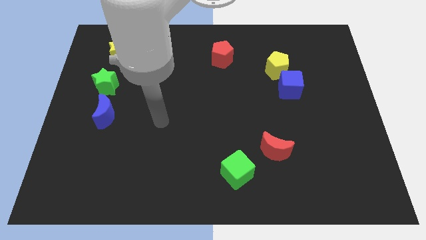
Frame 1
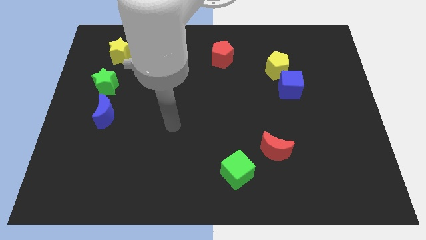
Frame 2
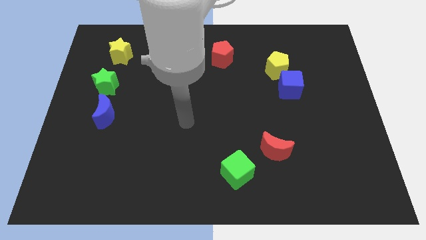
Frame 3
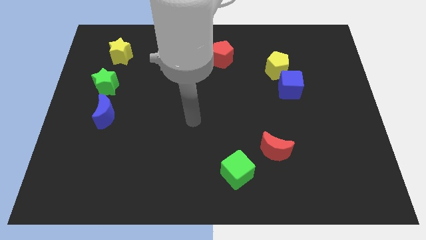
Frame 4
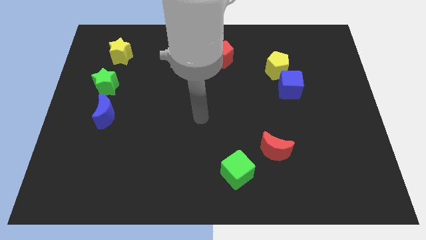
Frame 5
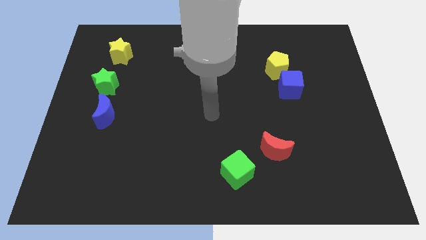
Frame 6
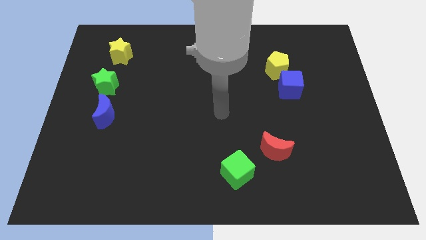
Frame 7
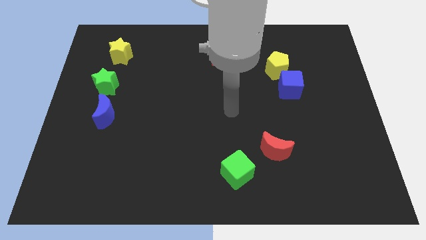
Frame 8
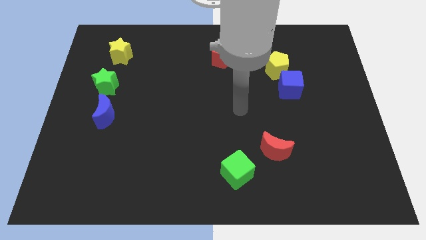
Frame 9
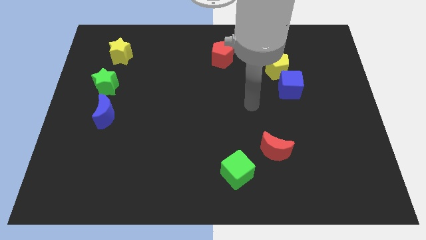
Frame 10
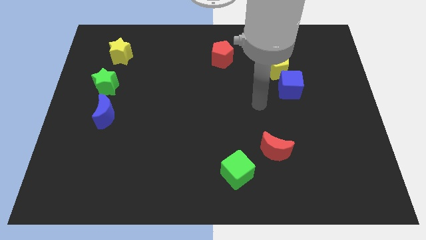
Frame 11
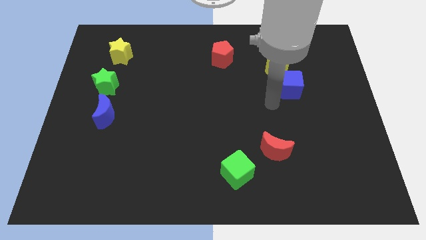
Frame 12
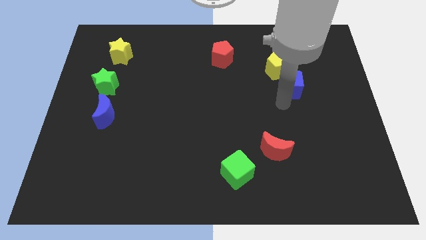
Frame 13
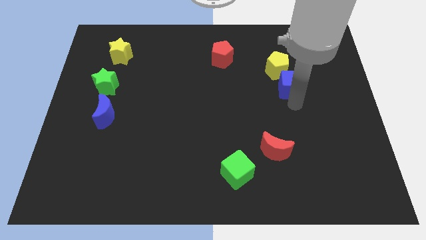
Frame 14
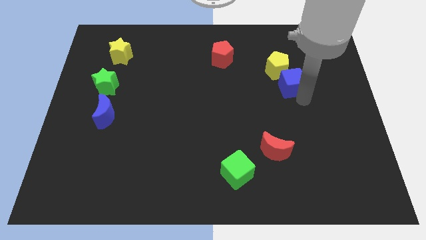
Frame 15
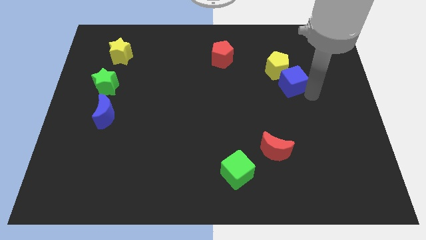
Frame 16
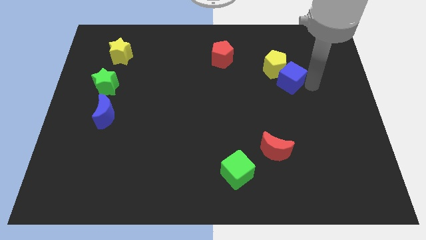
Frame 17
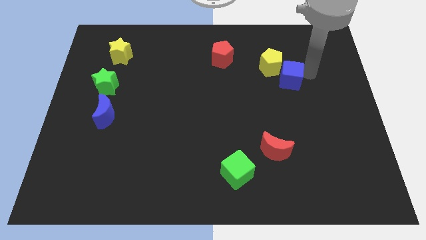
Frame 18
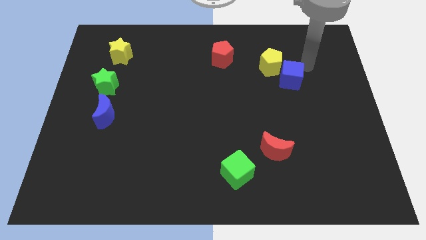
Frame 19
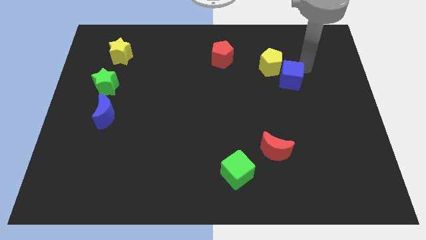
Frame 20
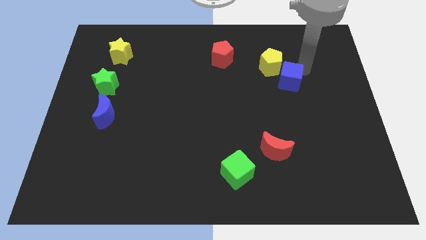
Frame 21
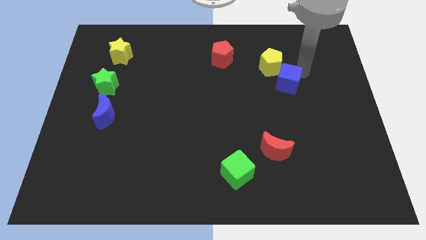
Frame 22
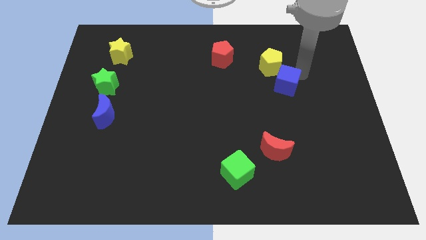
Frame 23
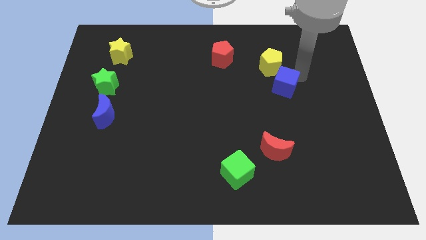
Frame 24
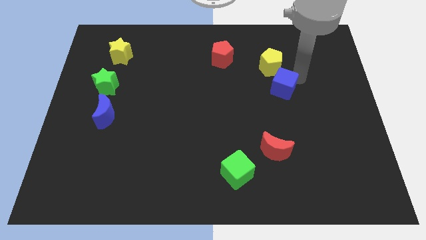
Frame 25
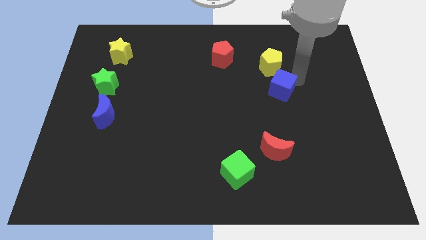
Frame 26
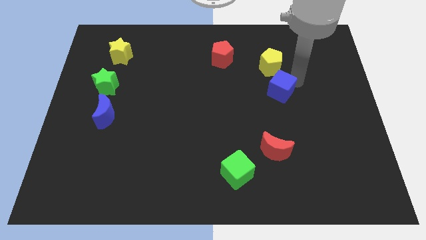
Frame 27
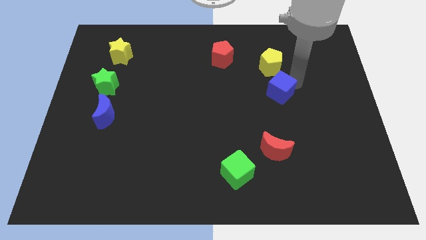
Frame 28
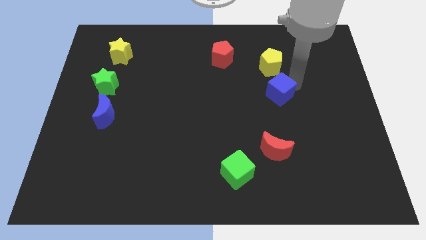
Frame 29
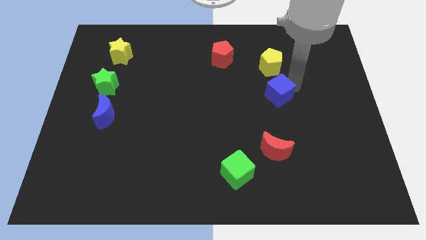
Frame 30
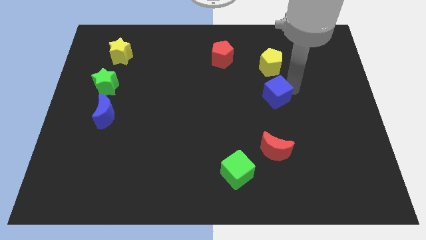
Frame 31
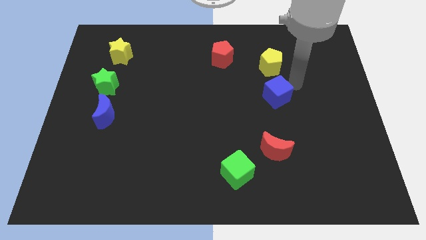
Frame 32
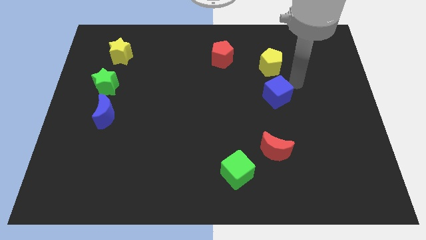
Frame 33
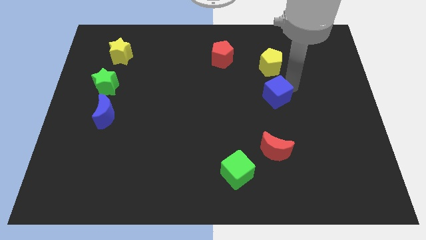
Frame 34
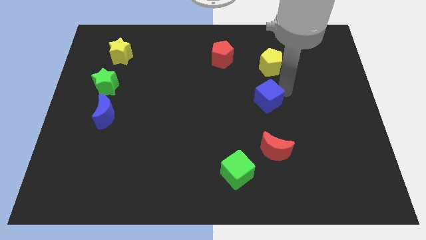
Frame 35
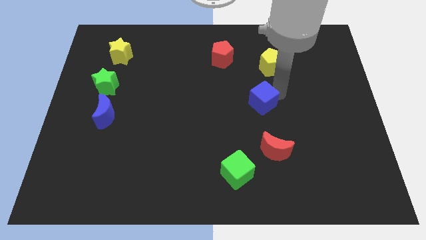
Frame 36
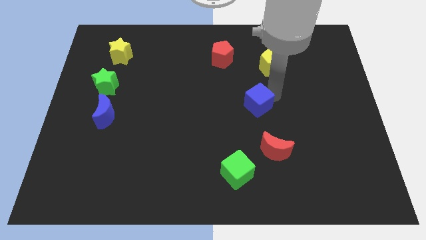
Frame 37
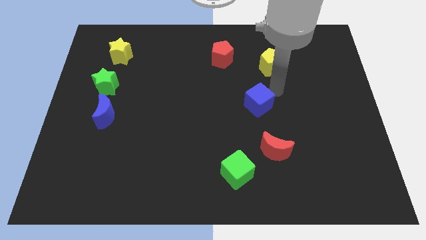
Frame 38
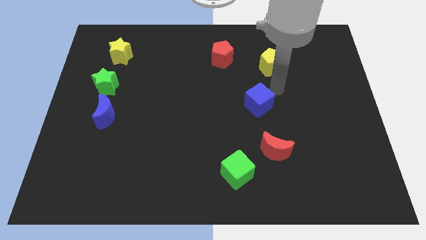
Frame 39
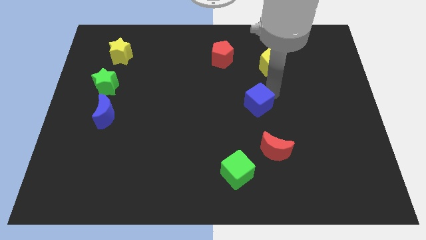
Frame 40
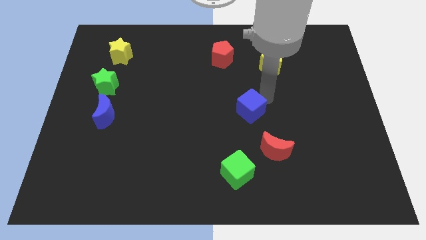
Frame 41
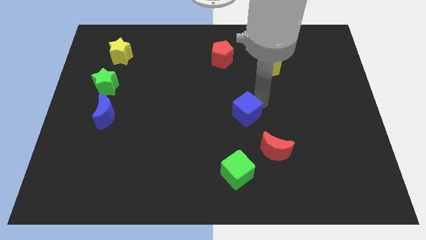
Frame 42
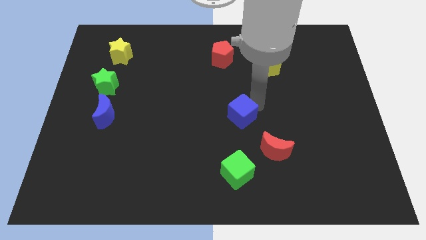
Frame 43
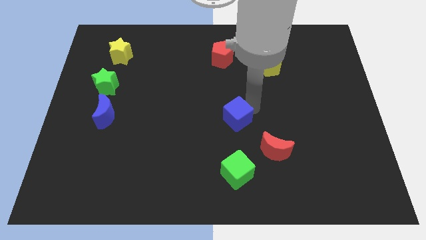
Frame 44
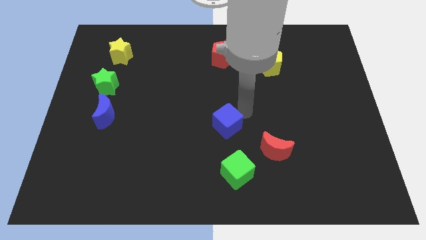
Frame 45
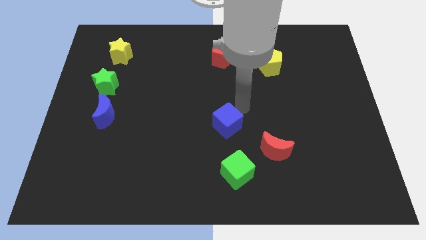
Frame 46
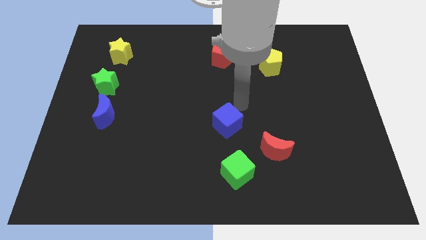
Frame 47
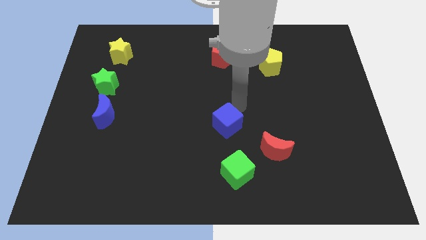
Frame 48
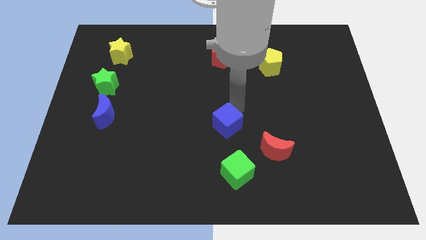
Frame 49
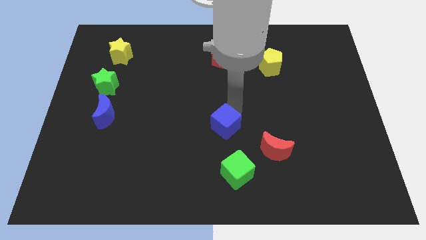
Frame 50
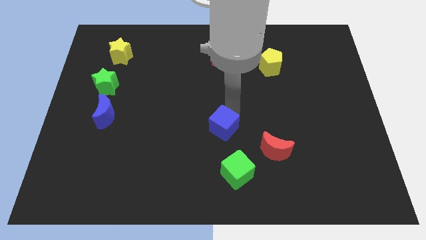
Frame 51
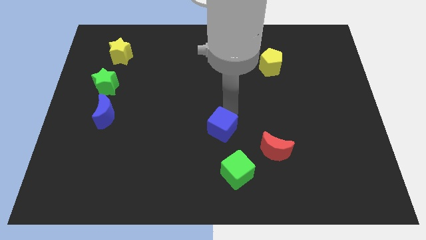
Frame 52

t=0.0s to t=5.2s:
push the blue cube downwards and to the left

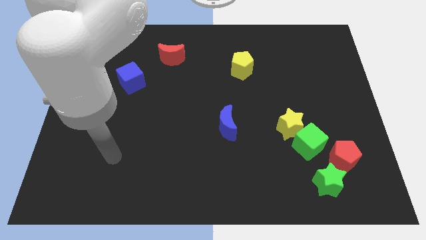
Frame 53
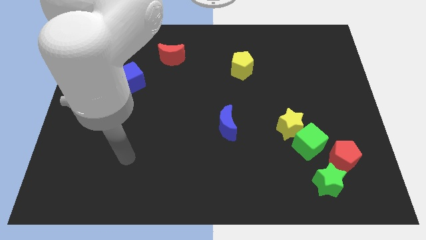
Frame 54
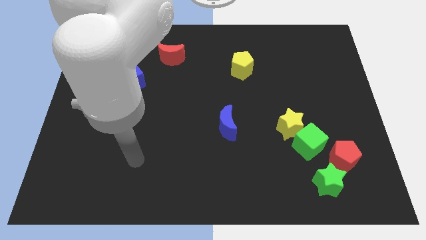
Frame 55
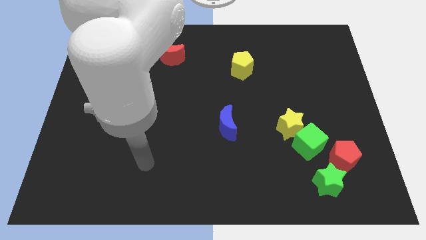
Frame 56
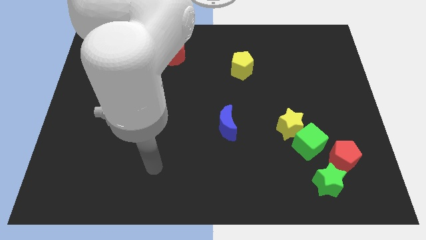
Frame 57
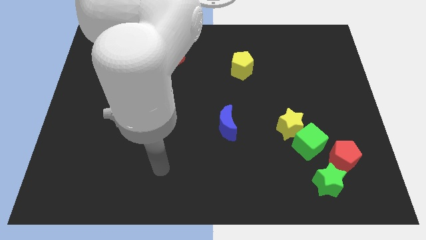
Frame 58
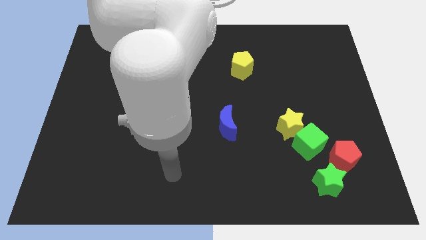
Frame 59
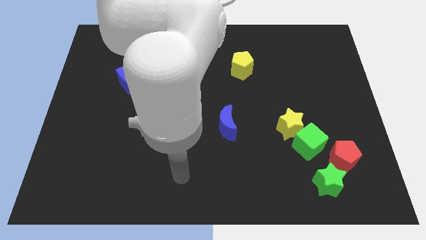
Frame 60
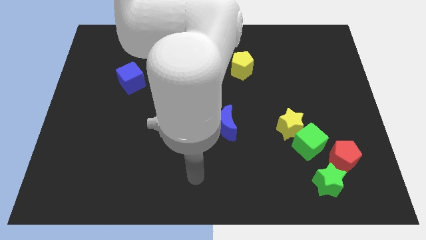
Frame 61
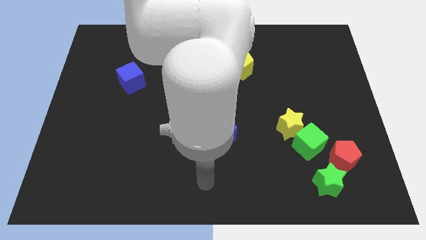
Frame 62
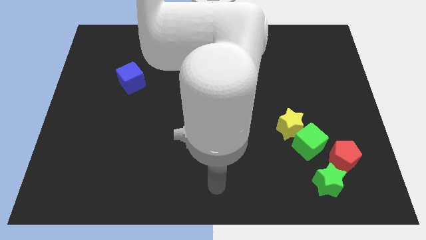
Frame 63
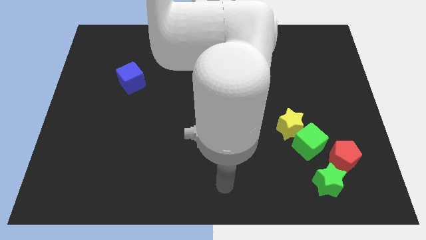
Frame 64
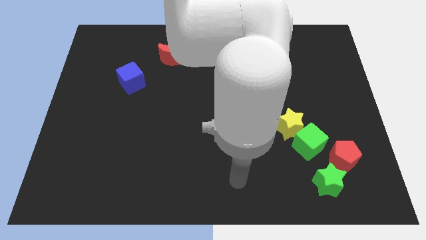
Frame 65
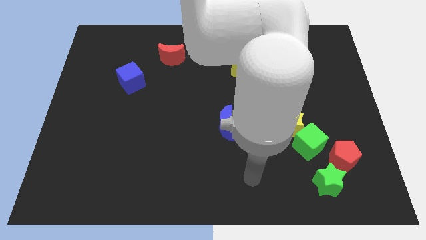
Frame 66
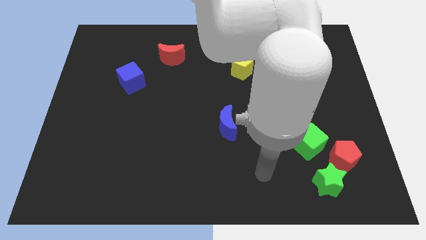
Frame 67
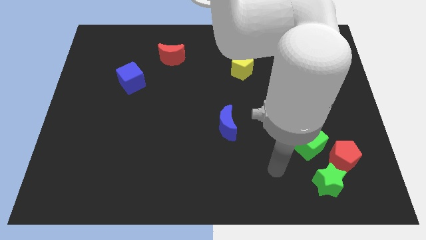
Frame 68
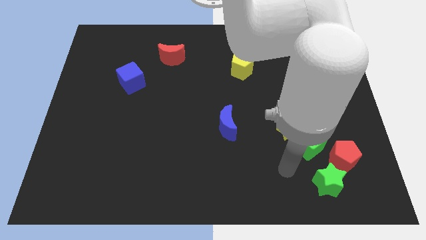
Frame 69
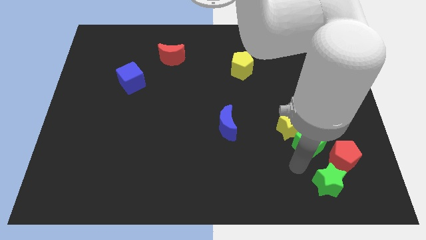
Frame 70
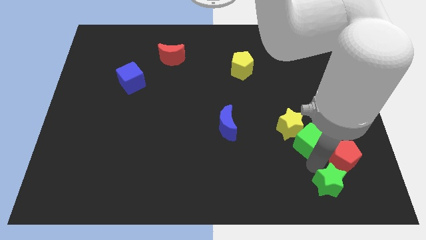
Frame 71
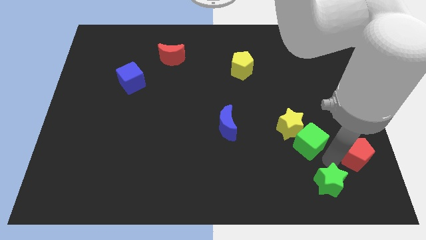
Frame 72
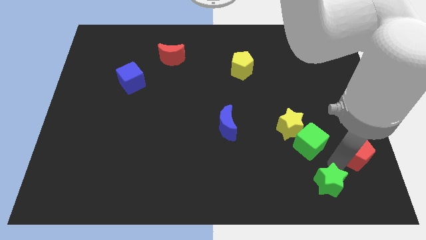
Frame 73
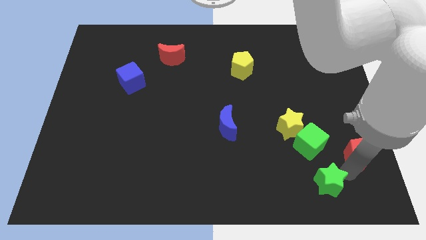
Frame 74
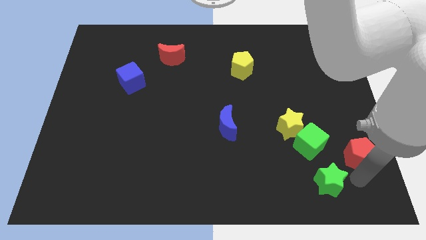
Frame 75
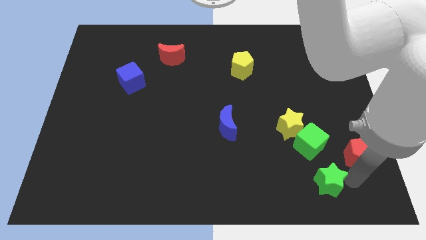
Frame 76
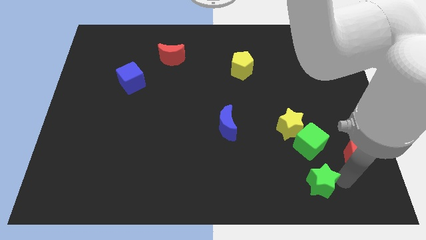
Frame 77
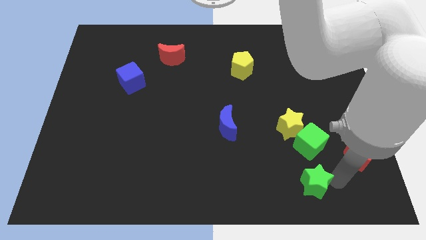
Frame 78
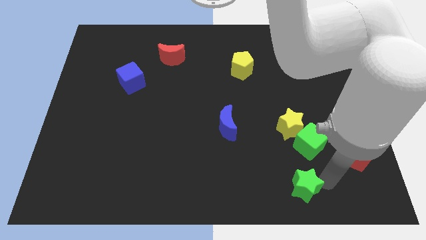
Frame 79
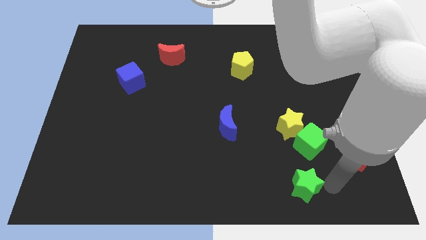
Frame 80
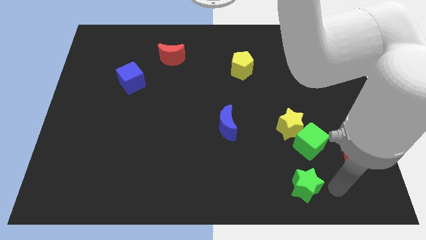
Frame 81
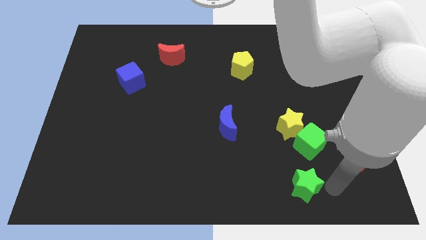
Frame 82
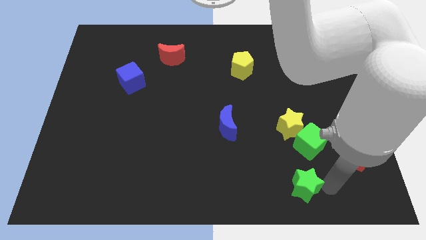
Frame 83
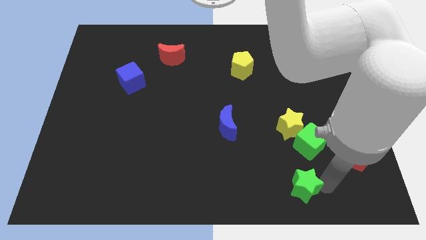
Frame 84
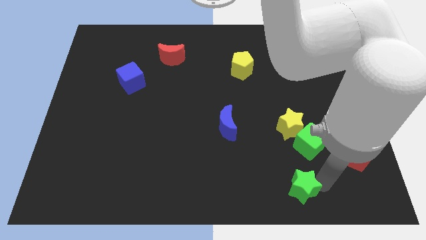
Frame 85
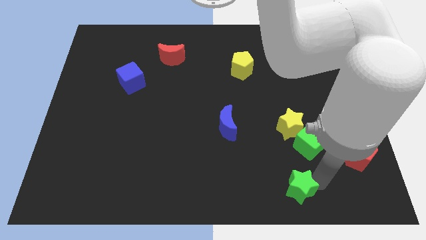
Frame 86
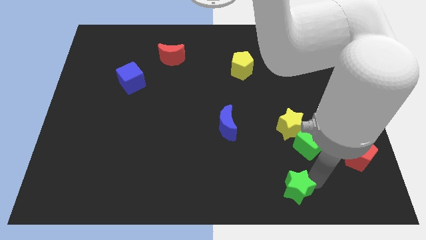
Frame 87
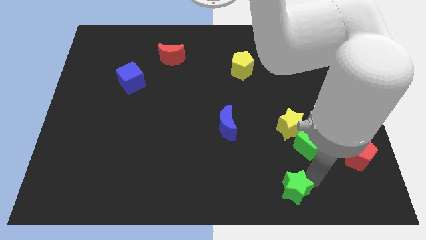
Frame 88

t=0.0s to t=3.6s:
slide the green star a little bit left
